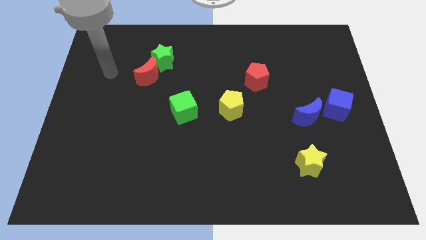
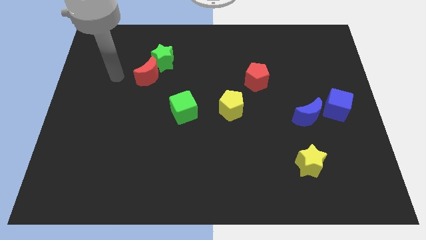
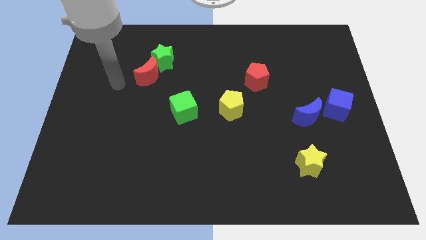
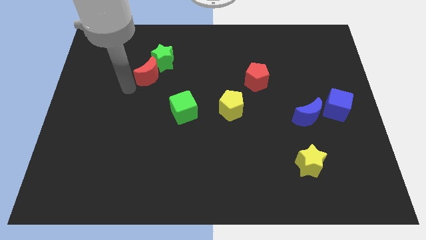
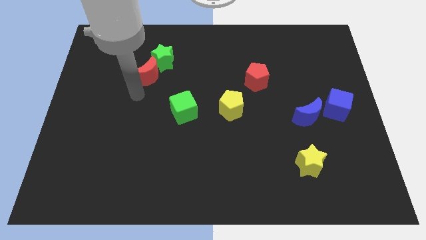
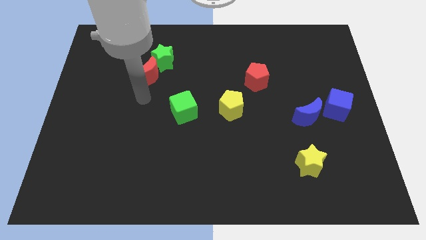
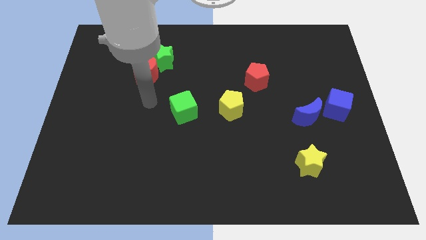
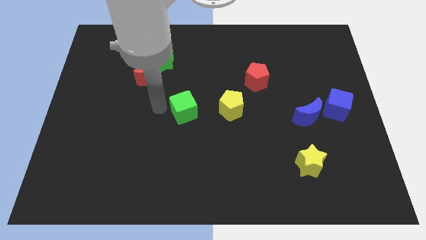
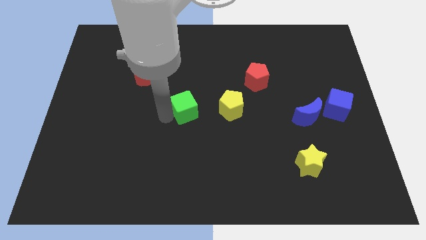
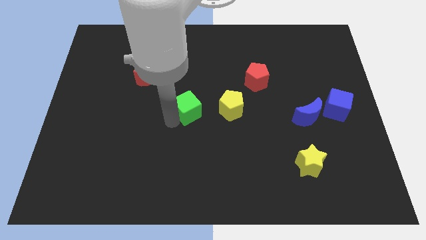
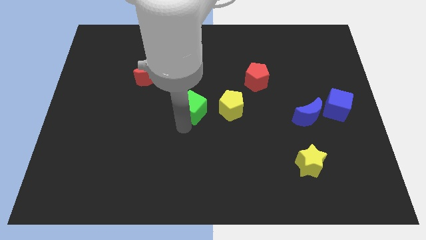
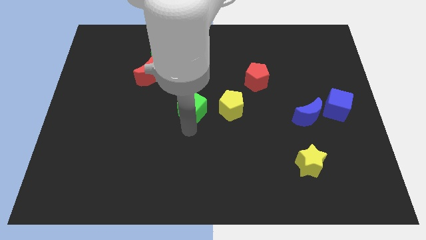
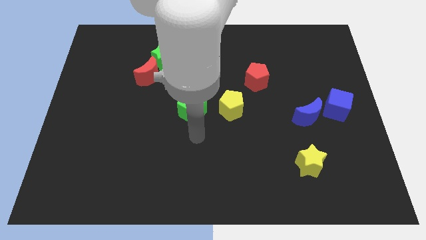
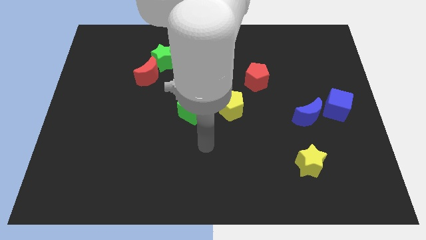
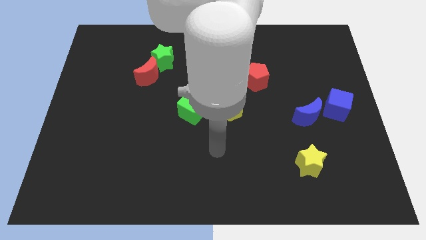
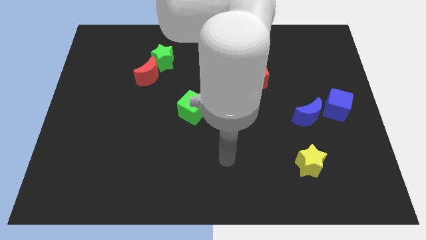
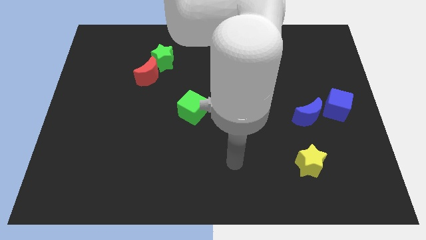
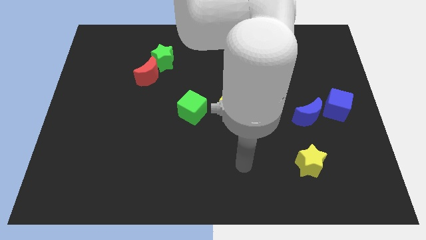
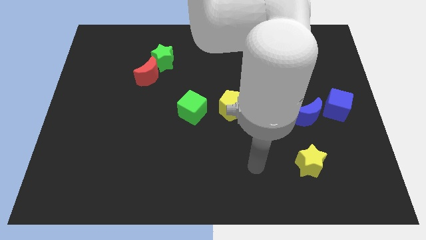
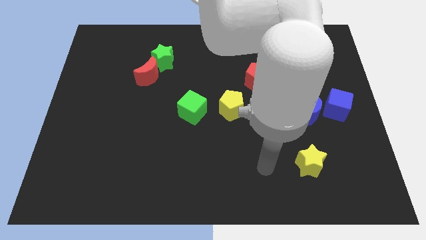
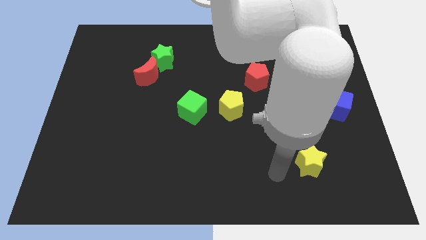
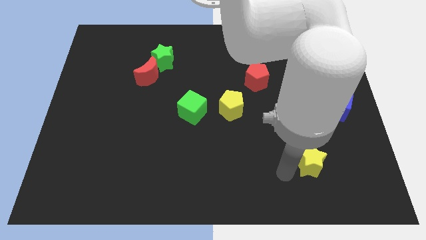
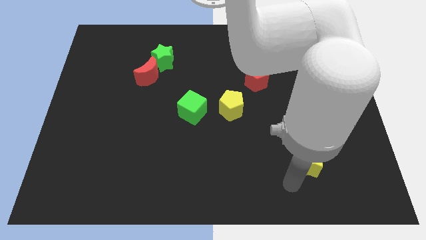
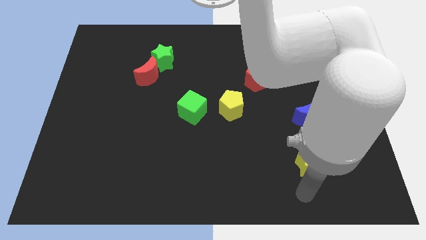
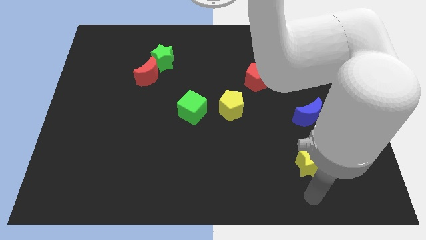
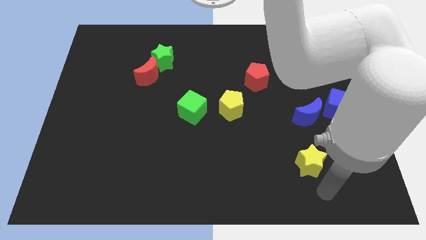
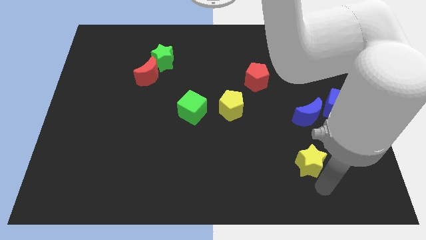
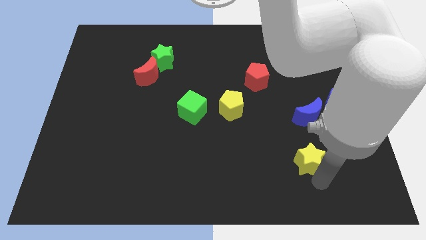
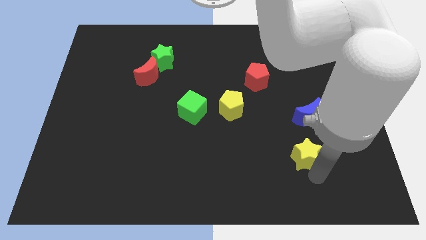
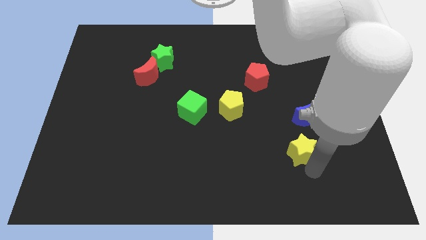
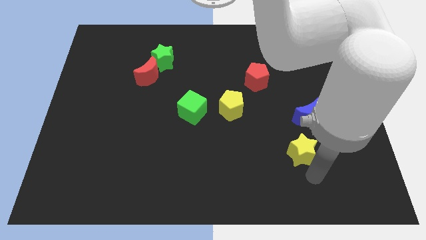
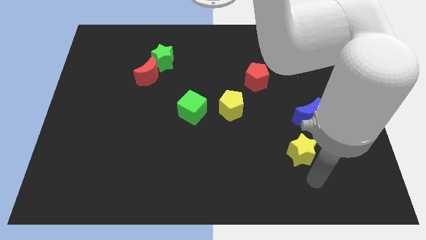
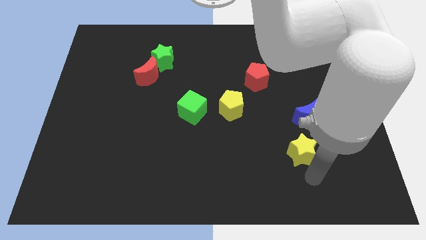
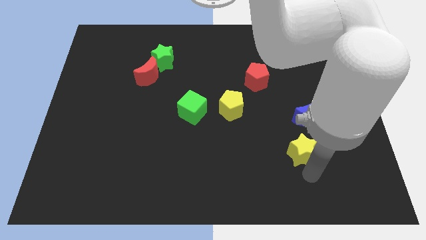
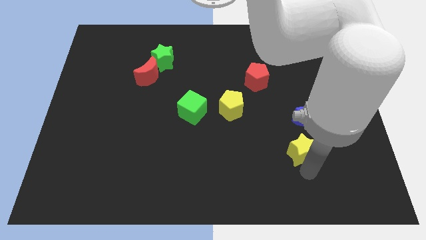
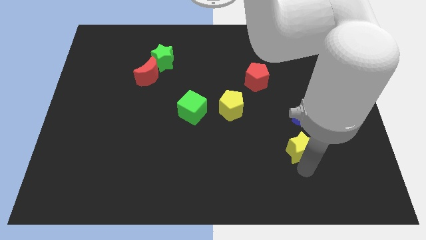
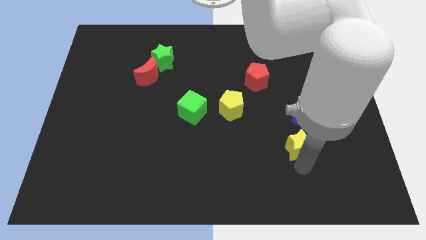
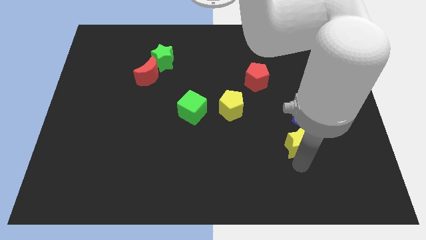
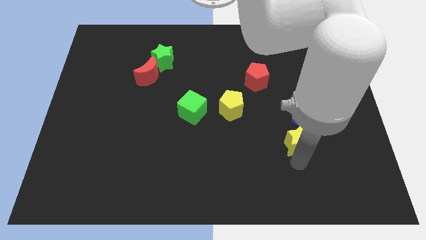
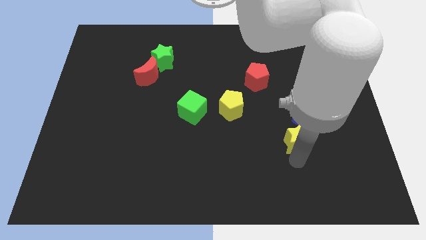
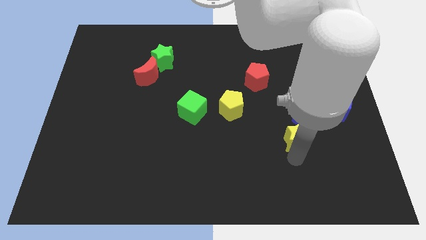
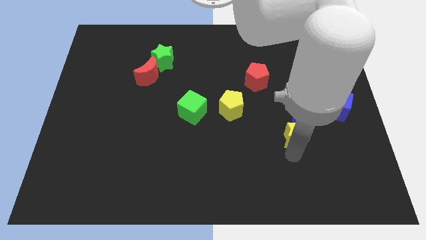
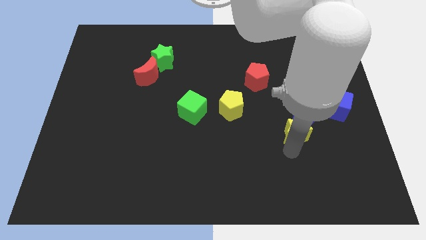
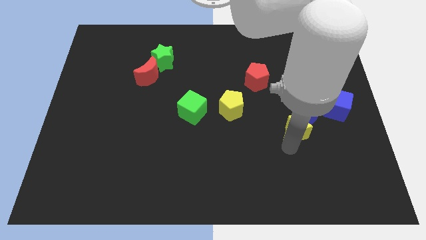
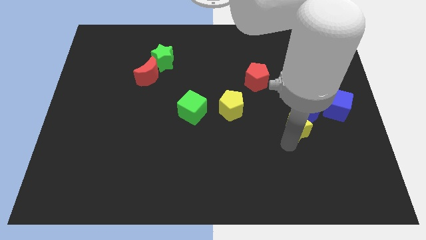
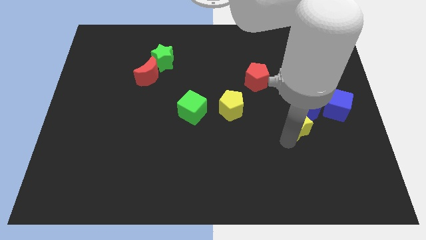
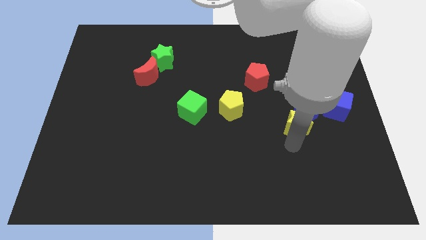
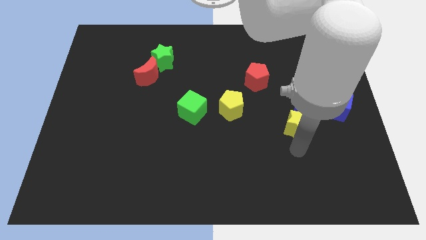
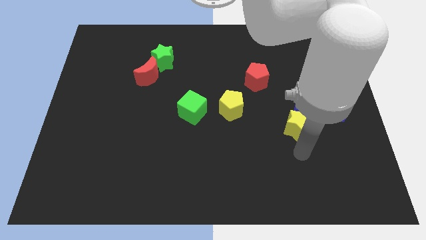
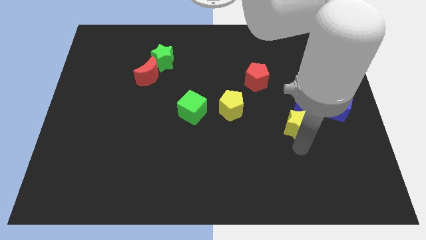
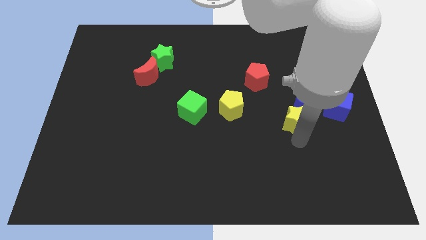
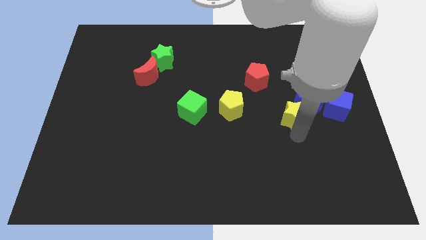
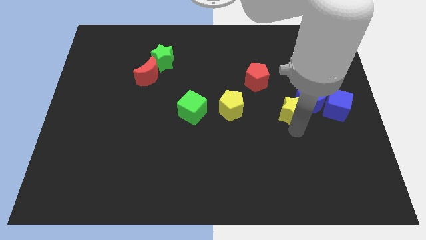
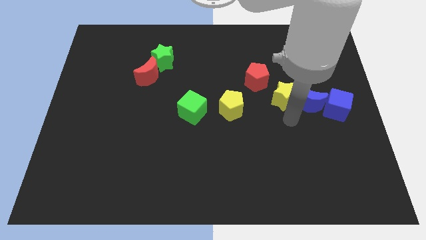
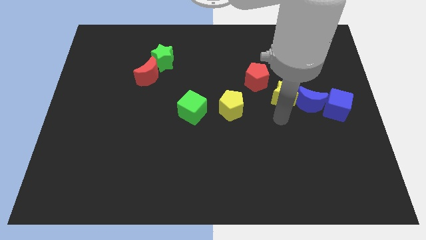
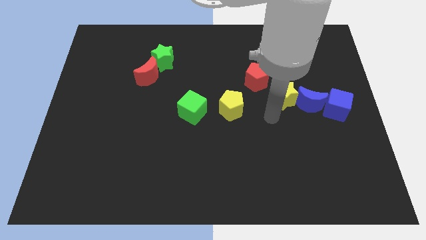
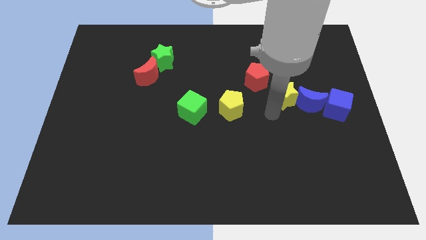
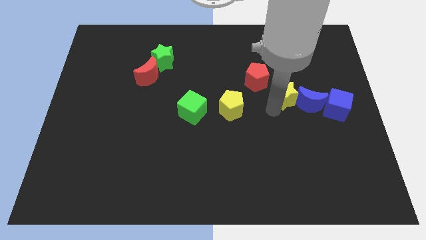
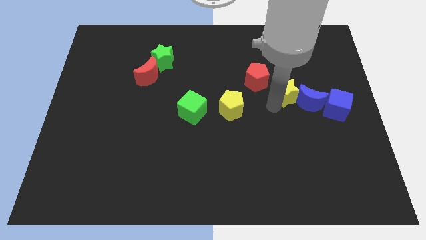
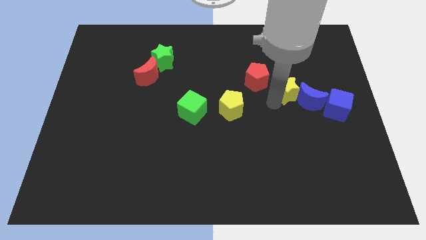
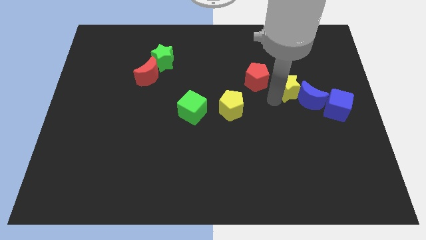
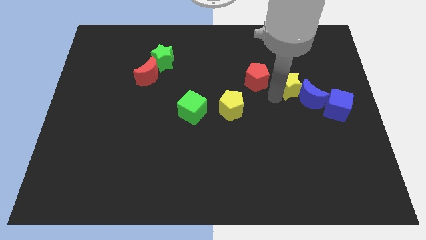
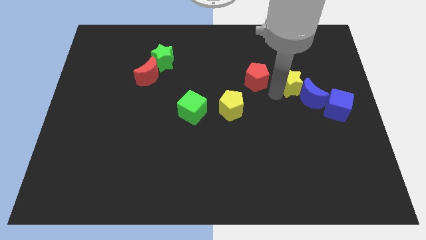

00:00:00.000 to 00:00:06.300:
move the yellow star above the blue moon

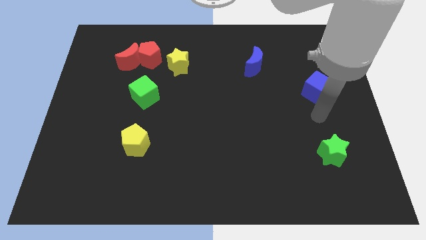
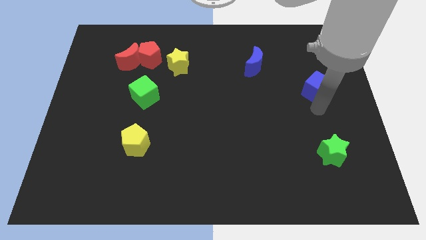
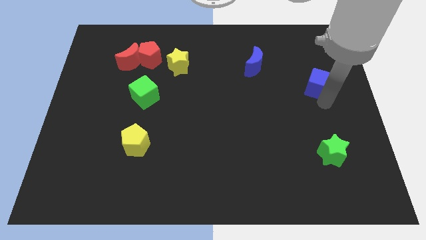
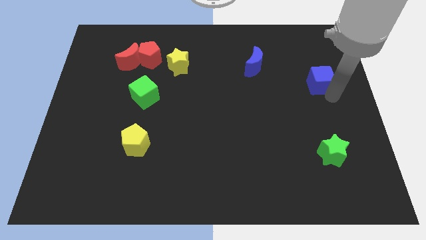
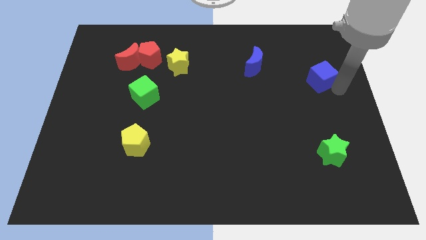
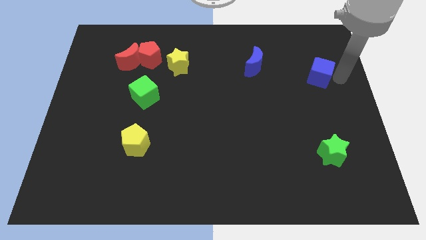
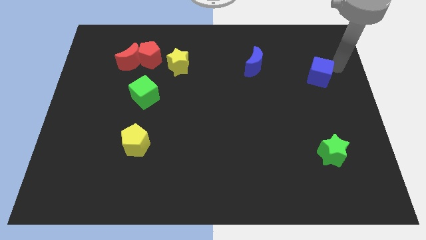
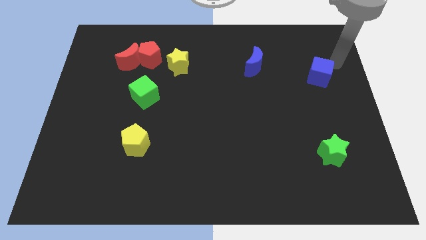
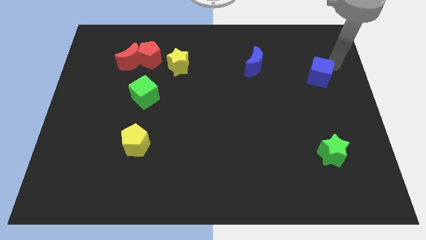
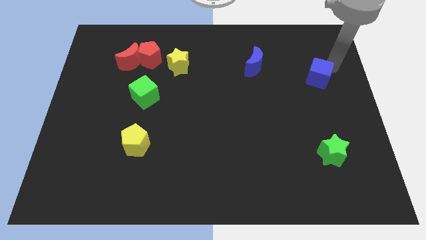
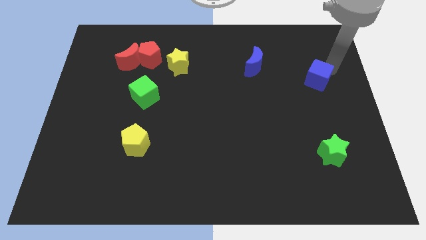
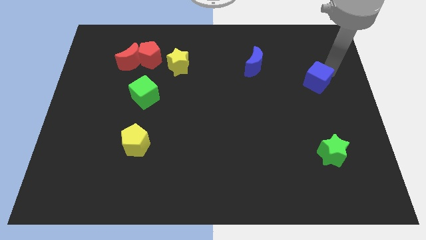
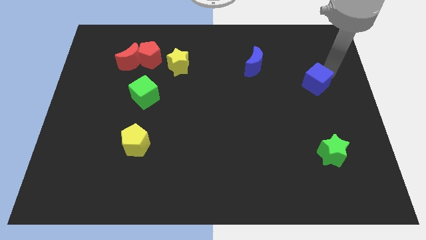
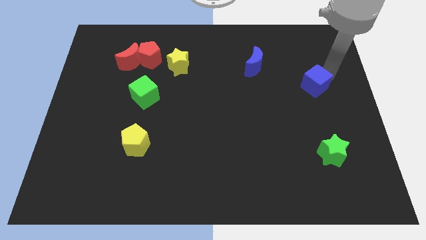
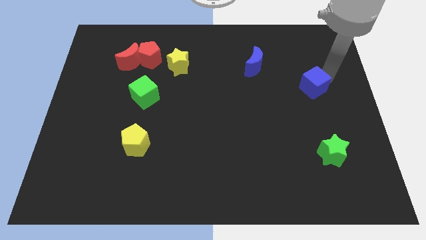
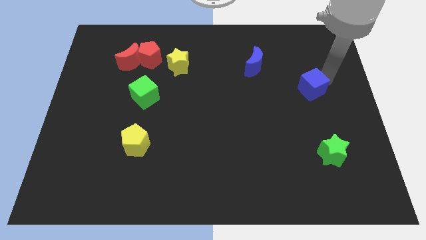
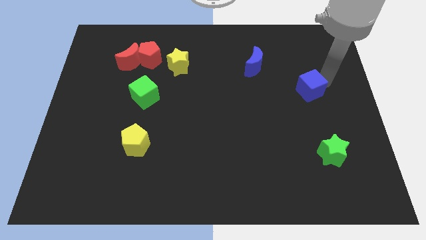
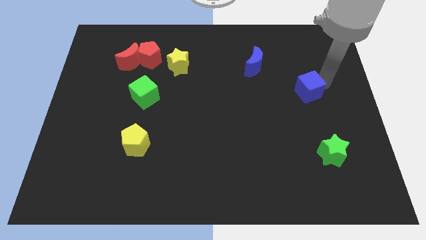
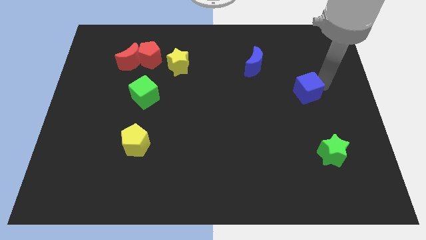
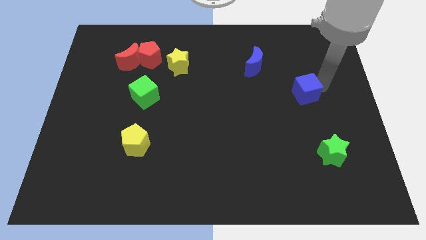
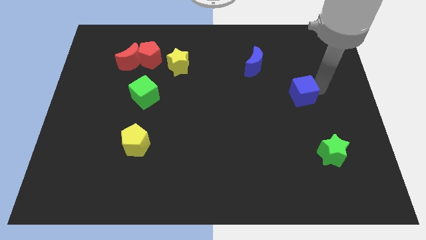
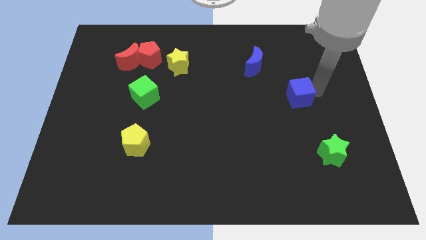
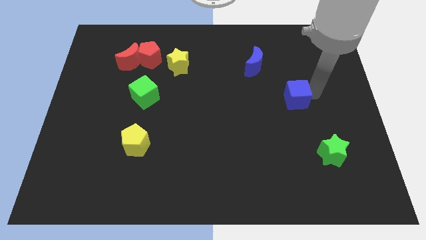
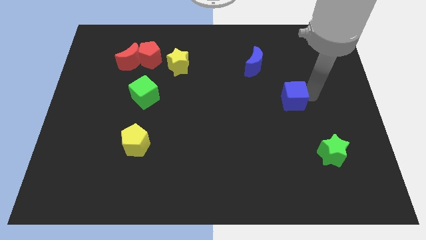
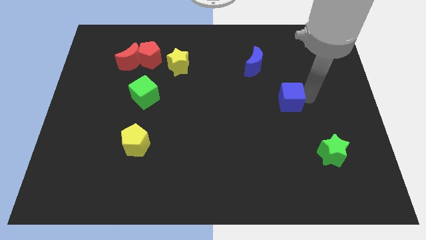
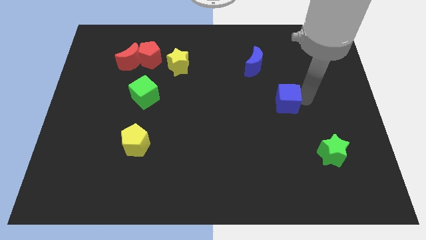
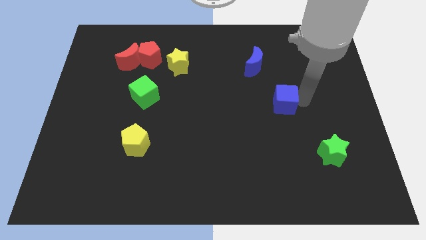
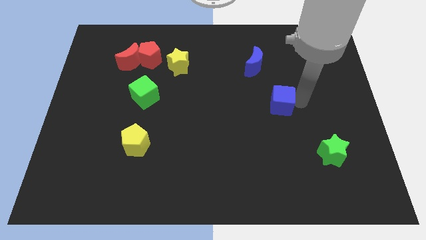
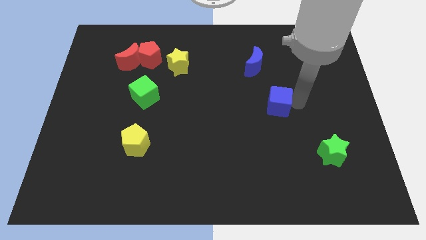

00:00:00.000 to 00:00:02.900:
move the blue cube to the bottom side of the blue moon
